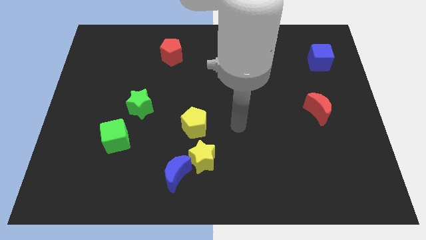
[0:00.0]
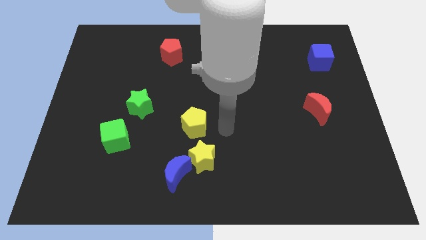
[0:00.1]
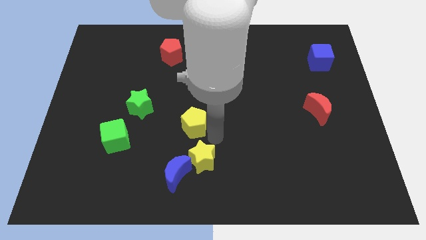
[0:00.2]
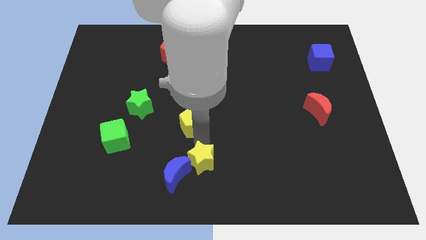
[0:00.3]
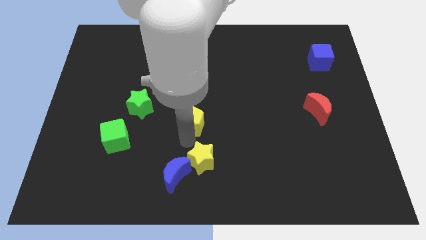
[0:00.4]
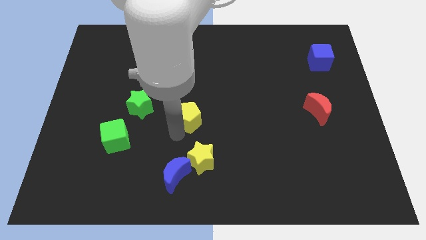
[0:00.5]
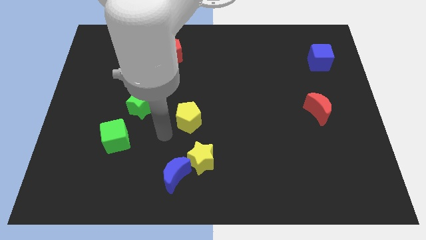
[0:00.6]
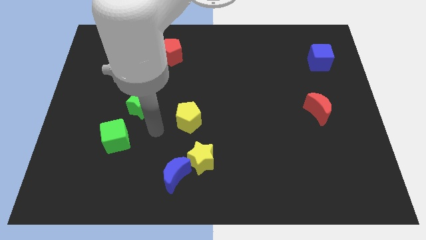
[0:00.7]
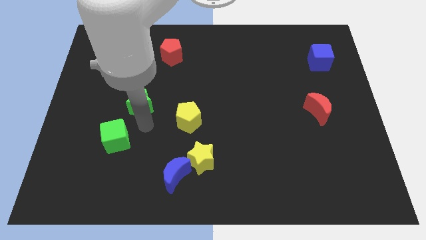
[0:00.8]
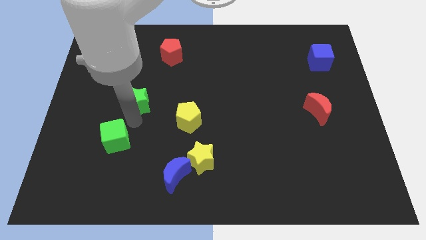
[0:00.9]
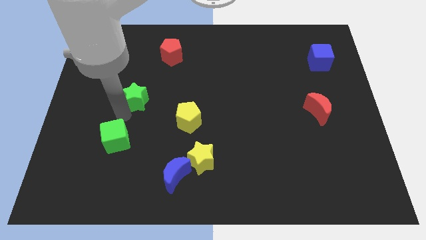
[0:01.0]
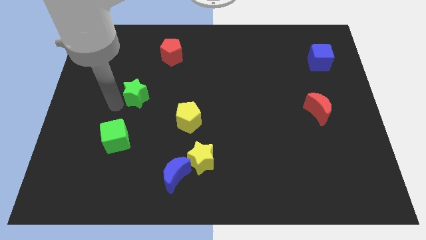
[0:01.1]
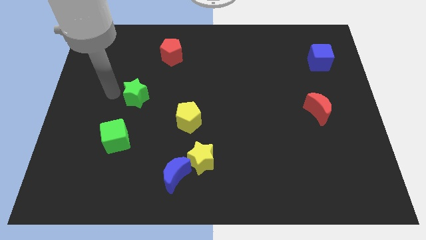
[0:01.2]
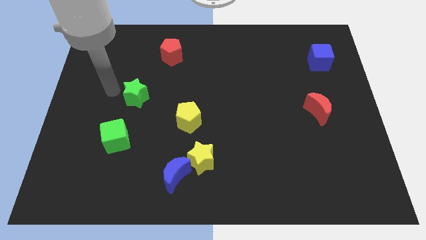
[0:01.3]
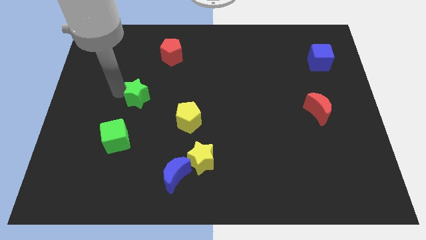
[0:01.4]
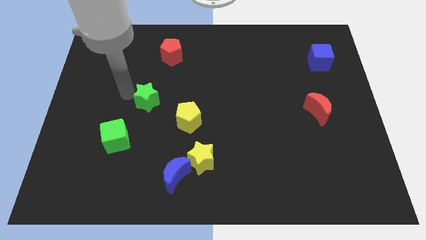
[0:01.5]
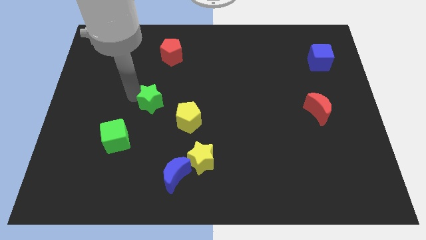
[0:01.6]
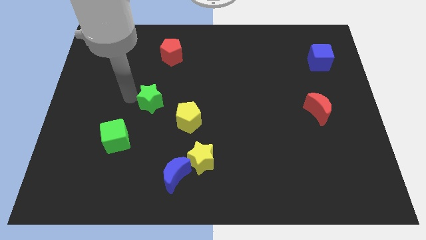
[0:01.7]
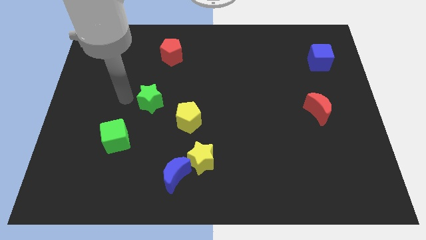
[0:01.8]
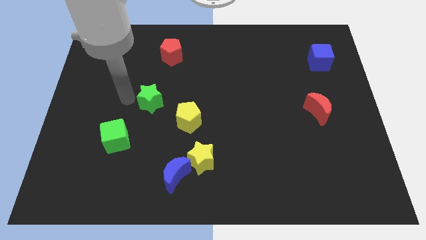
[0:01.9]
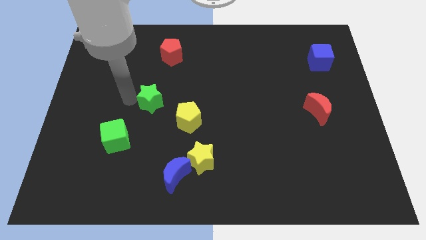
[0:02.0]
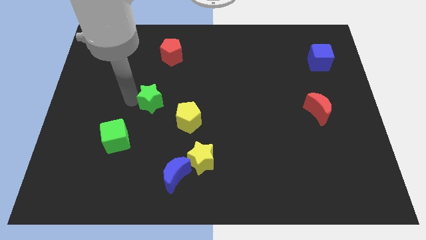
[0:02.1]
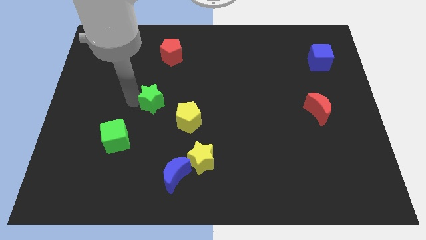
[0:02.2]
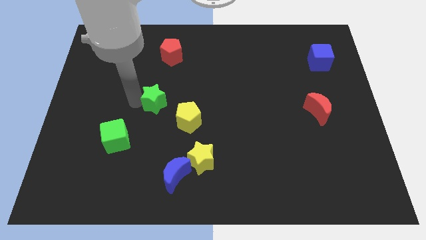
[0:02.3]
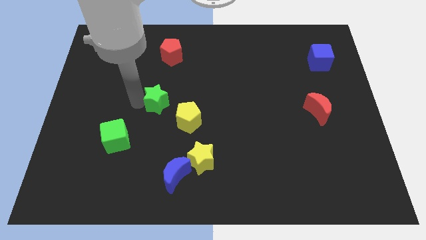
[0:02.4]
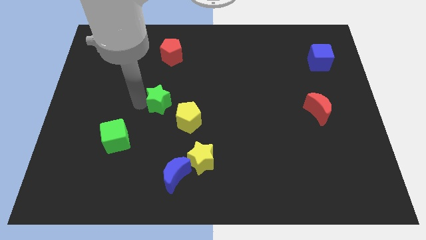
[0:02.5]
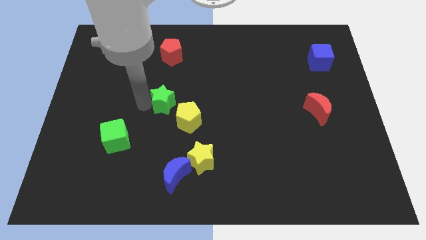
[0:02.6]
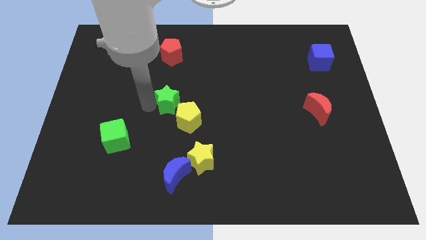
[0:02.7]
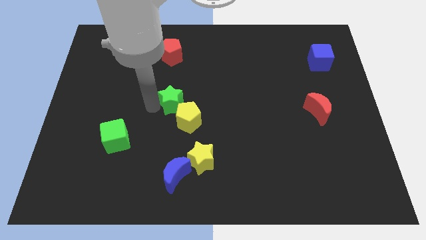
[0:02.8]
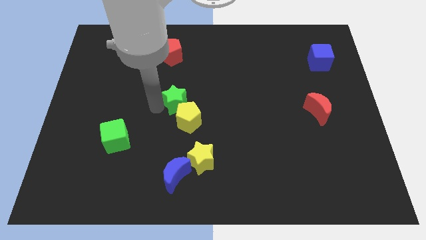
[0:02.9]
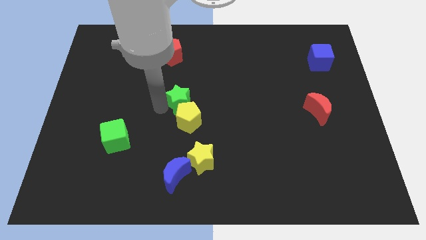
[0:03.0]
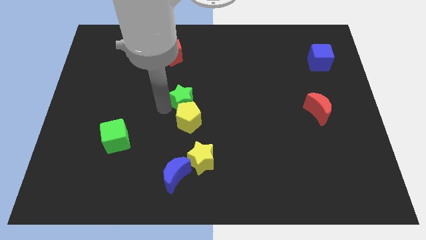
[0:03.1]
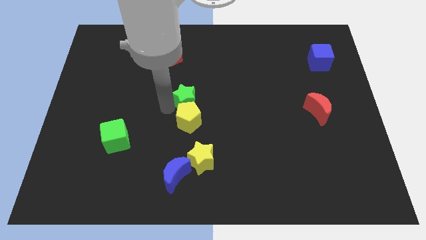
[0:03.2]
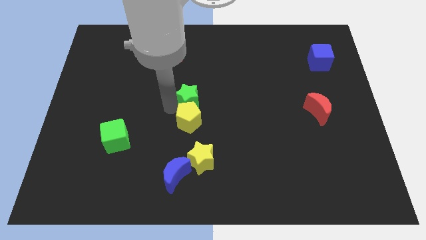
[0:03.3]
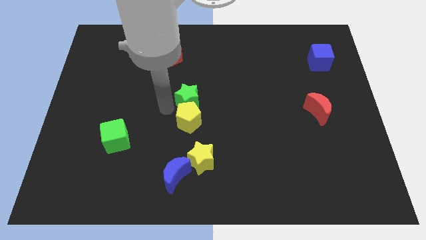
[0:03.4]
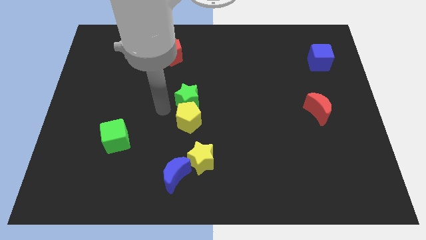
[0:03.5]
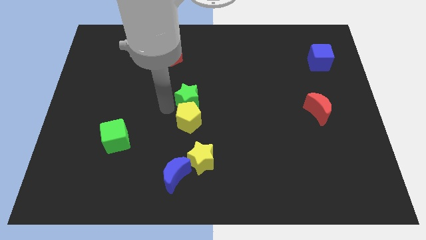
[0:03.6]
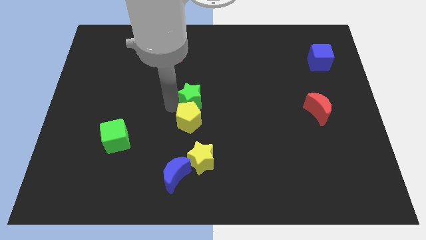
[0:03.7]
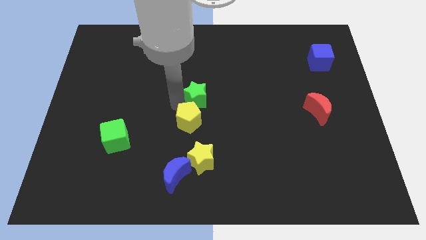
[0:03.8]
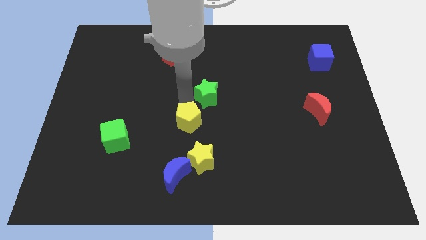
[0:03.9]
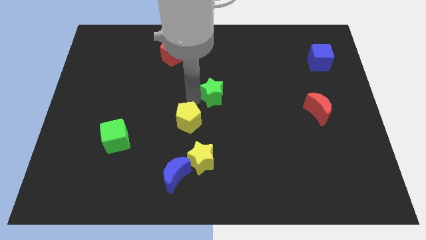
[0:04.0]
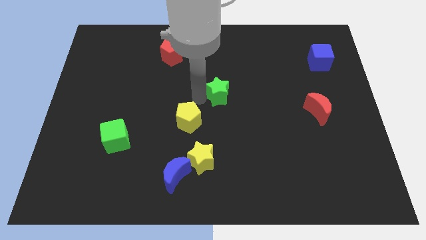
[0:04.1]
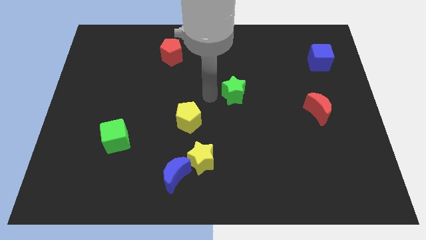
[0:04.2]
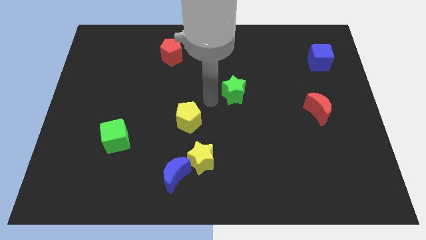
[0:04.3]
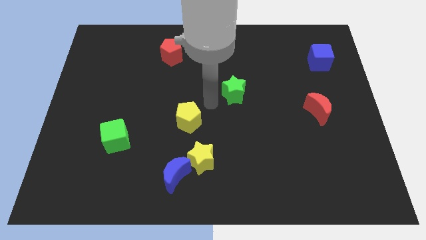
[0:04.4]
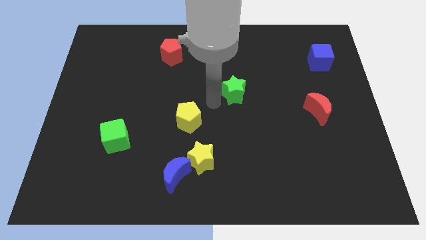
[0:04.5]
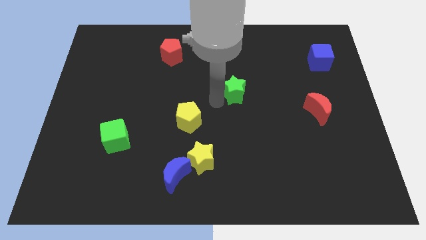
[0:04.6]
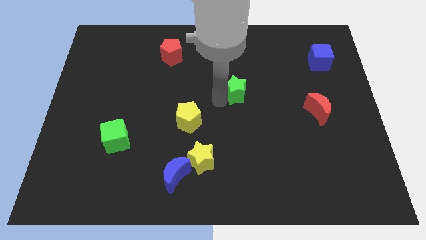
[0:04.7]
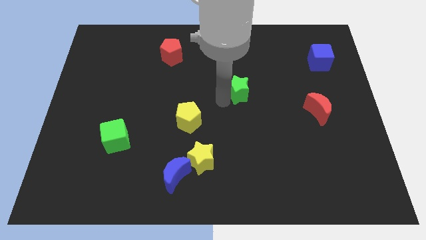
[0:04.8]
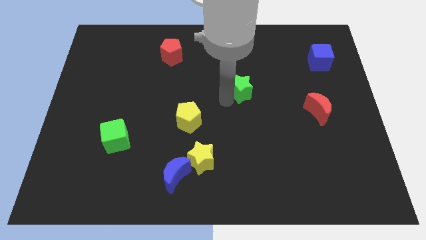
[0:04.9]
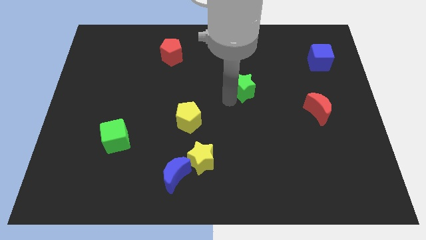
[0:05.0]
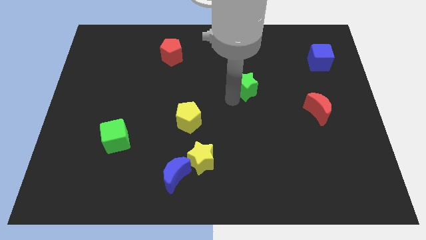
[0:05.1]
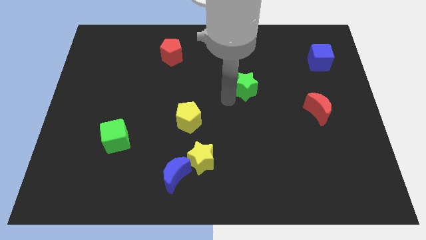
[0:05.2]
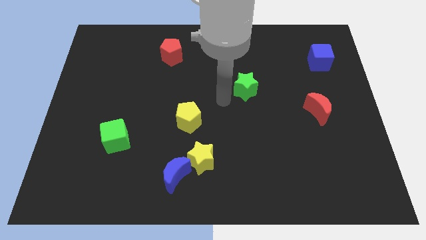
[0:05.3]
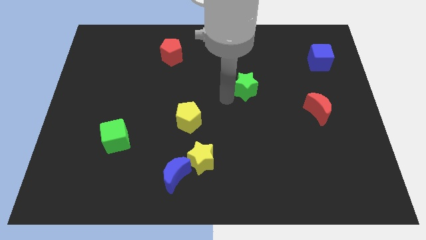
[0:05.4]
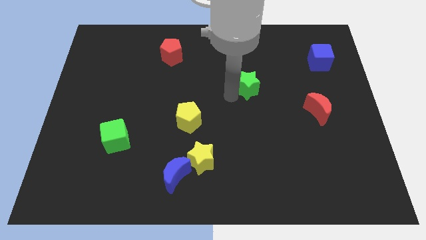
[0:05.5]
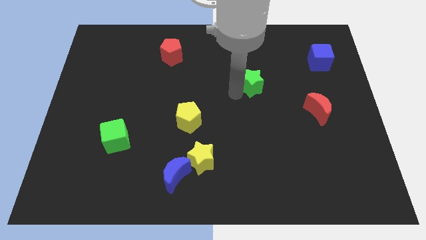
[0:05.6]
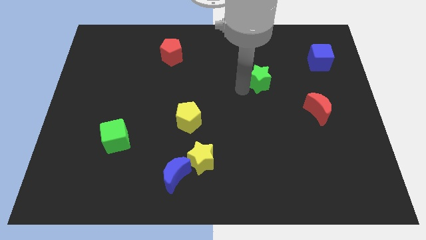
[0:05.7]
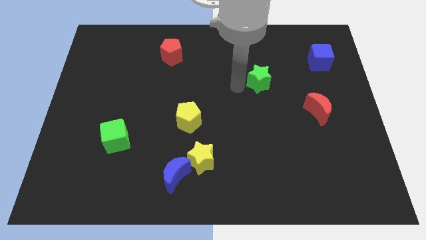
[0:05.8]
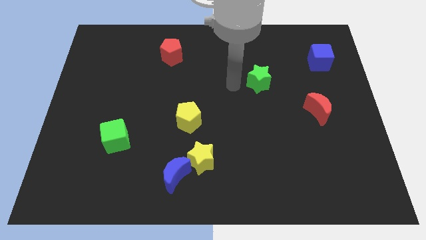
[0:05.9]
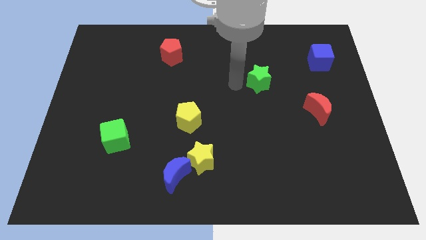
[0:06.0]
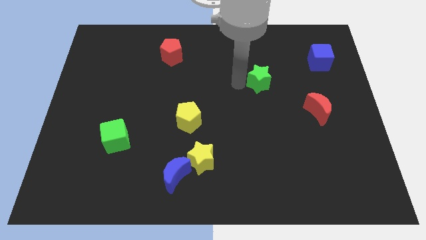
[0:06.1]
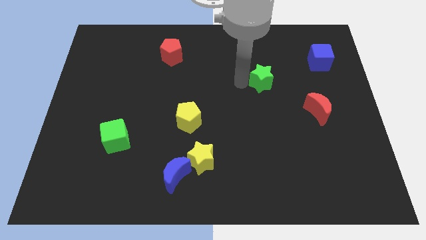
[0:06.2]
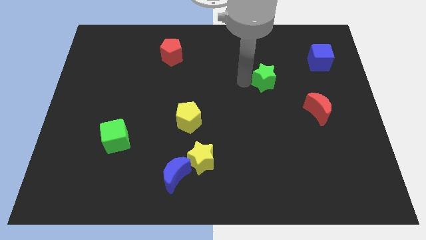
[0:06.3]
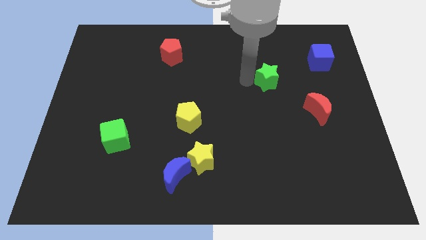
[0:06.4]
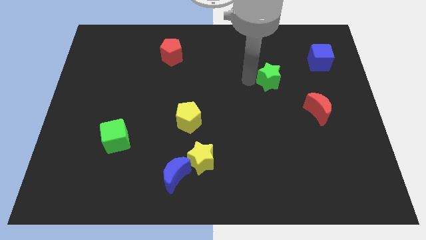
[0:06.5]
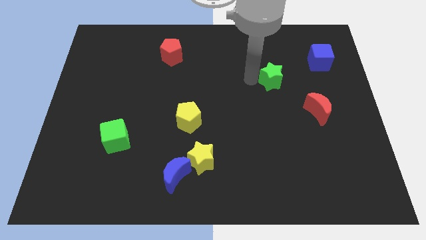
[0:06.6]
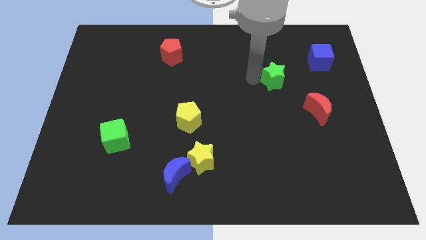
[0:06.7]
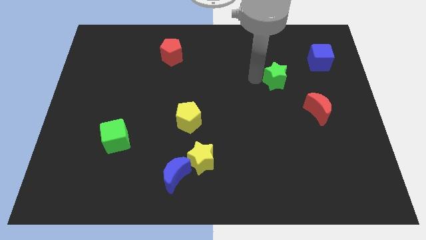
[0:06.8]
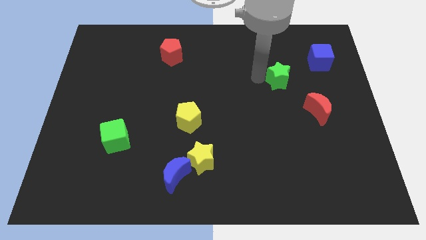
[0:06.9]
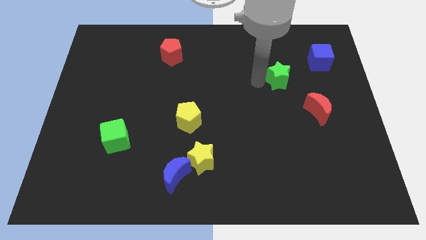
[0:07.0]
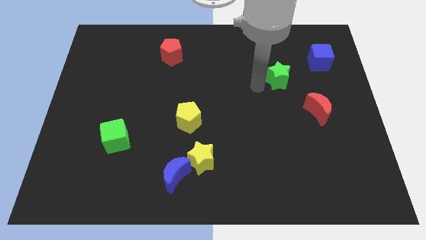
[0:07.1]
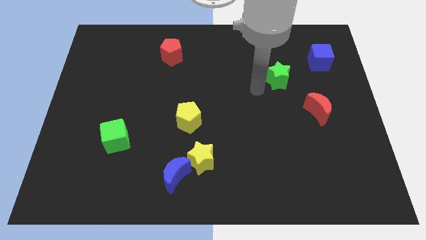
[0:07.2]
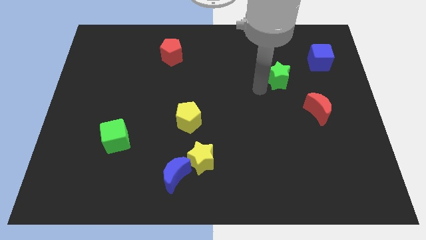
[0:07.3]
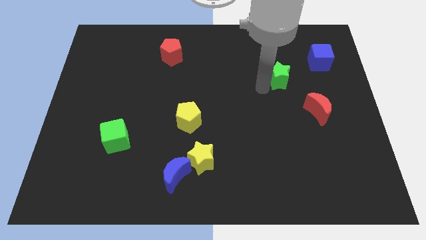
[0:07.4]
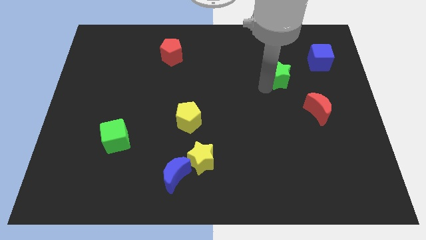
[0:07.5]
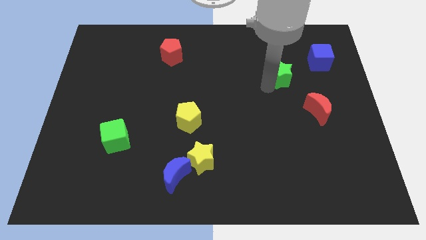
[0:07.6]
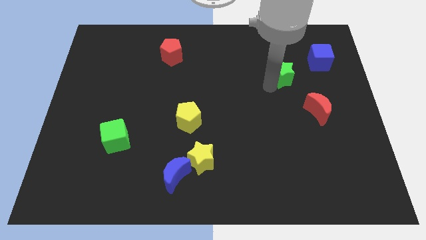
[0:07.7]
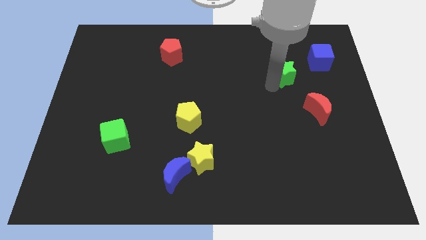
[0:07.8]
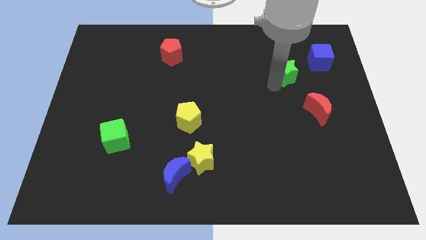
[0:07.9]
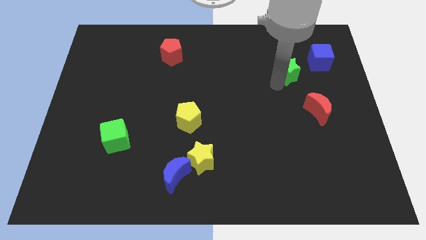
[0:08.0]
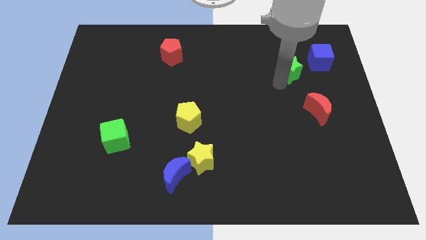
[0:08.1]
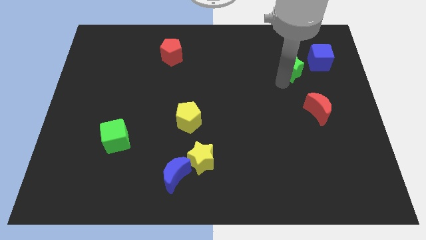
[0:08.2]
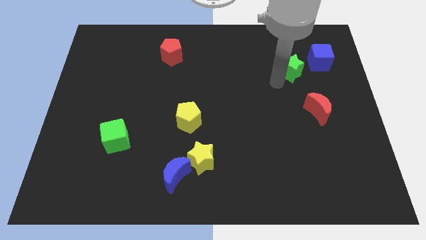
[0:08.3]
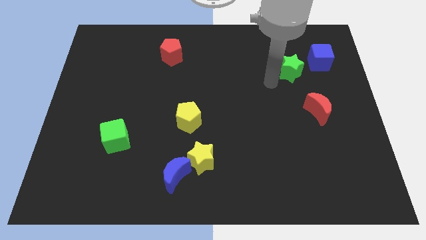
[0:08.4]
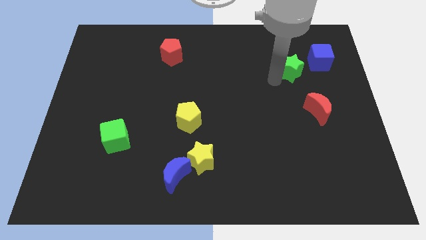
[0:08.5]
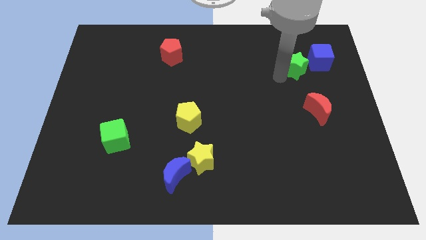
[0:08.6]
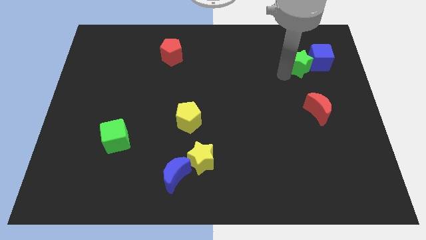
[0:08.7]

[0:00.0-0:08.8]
move the green star next to the blue cube
